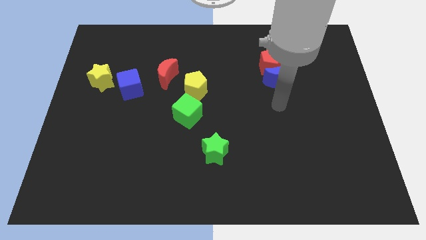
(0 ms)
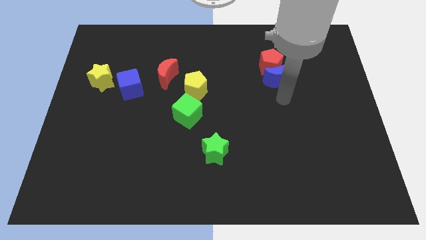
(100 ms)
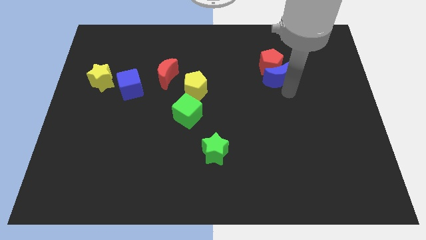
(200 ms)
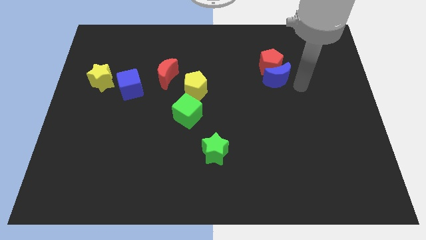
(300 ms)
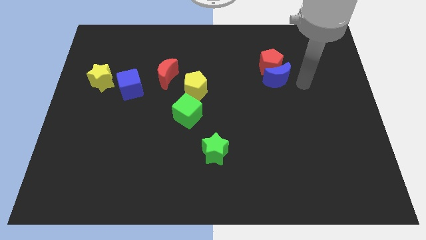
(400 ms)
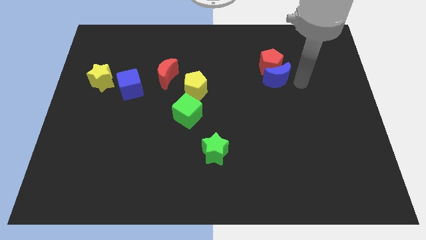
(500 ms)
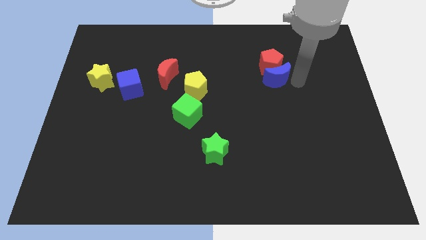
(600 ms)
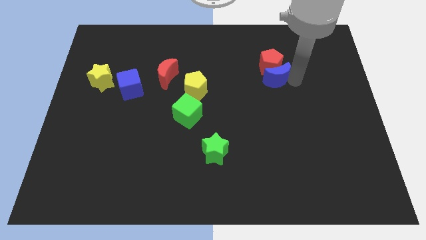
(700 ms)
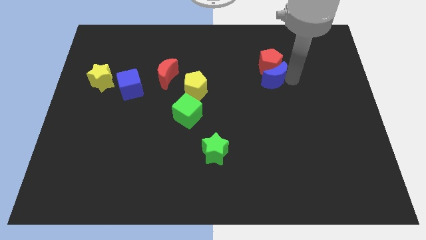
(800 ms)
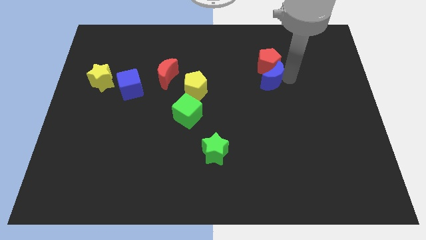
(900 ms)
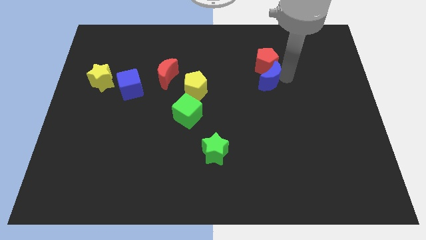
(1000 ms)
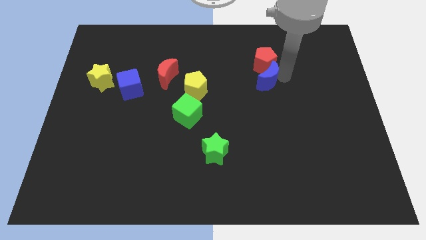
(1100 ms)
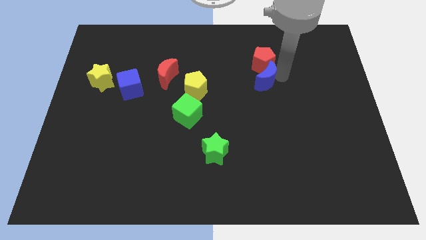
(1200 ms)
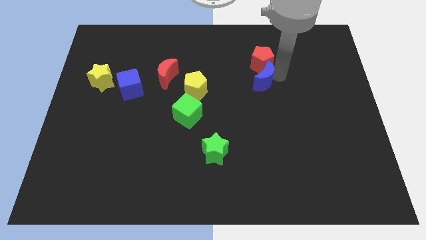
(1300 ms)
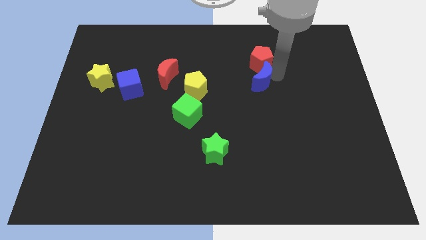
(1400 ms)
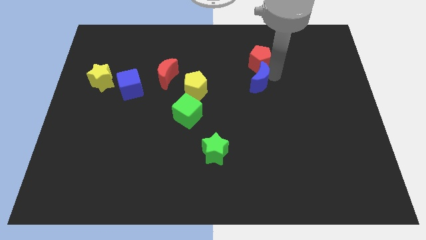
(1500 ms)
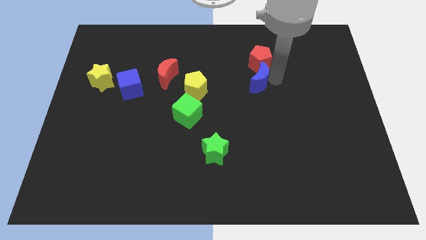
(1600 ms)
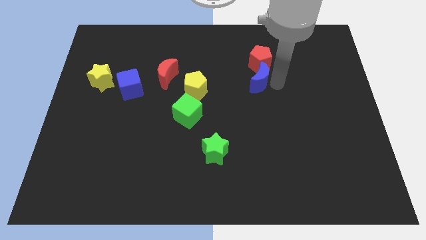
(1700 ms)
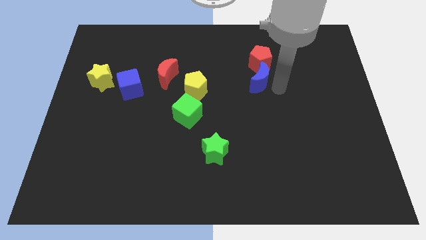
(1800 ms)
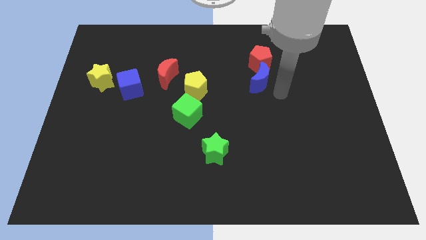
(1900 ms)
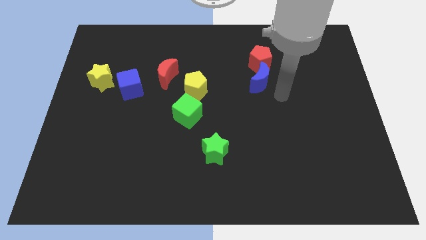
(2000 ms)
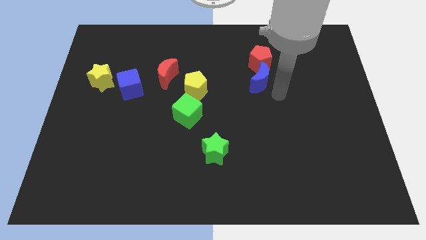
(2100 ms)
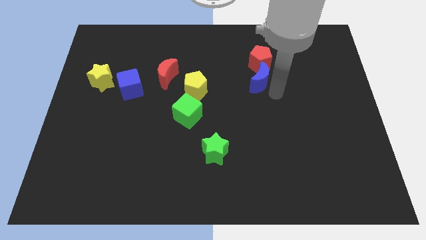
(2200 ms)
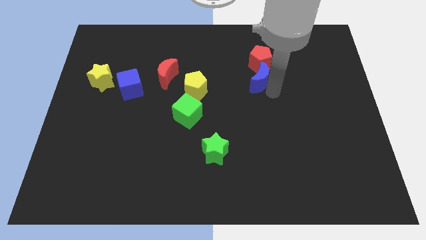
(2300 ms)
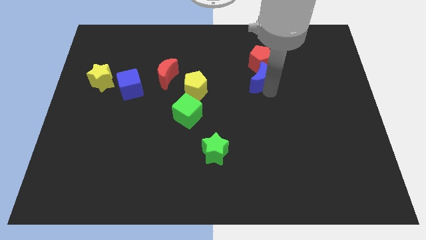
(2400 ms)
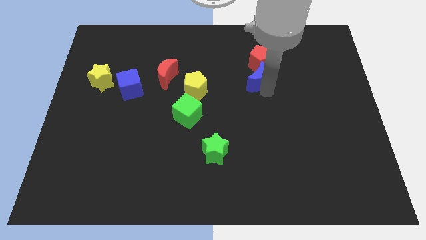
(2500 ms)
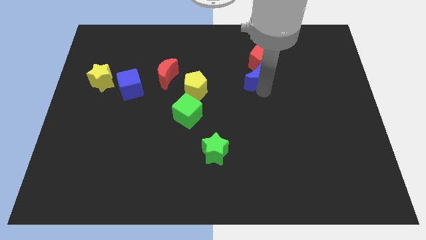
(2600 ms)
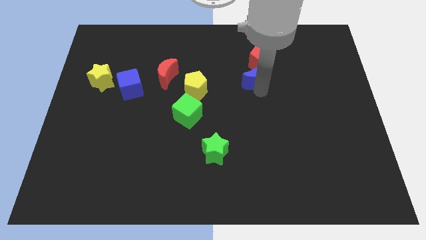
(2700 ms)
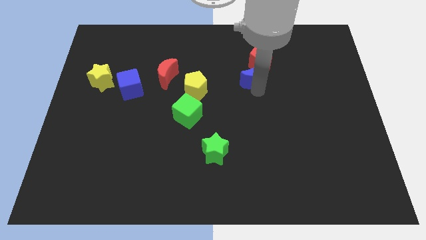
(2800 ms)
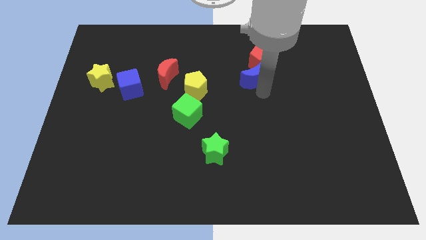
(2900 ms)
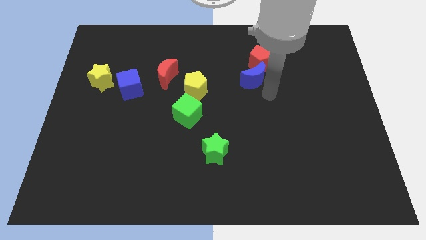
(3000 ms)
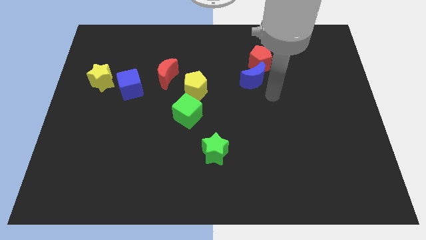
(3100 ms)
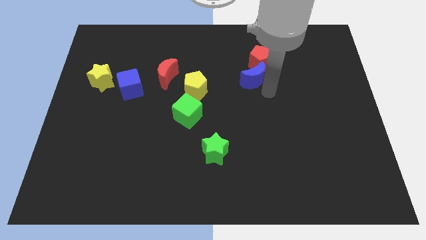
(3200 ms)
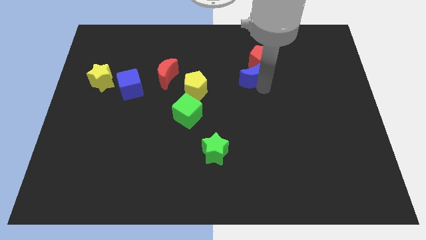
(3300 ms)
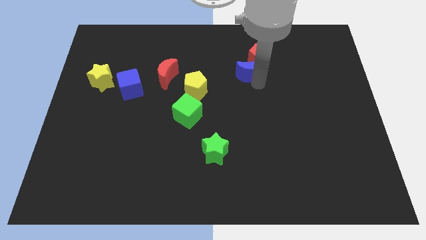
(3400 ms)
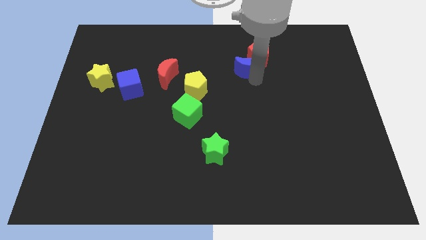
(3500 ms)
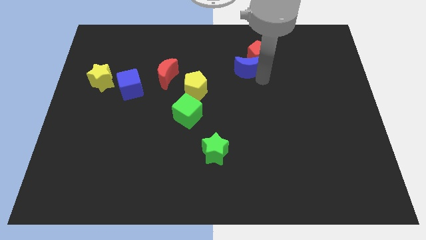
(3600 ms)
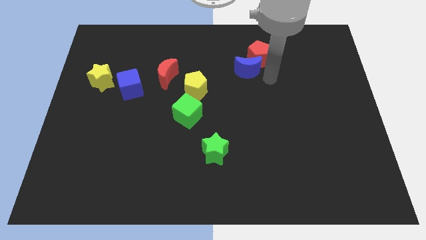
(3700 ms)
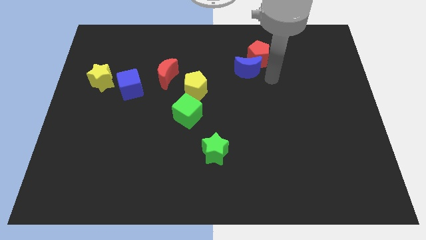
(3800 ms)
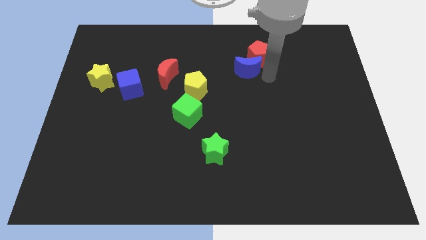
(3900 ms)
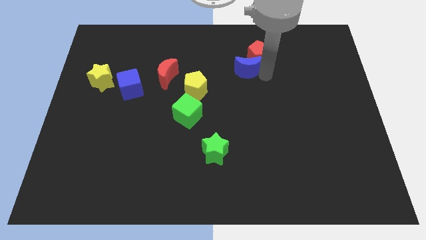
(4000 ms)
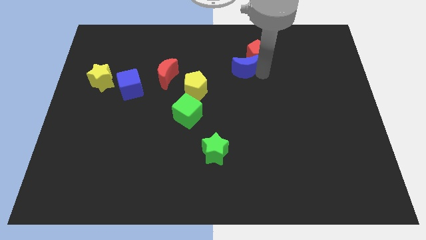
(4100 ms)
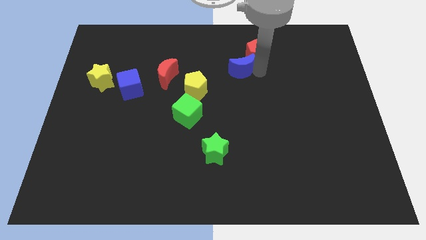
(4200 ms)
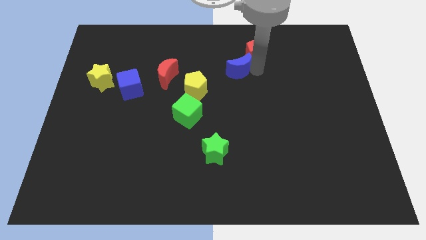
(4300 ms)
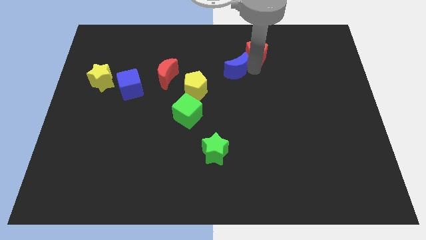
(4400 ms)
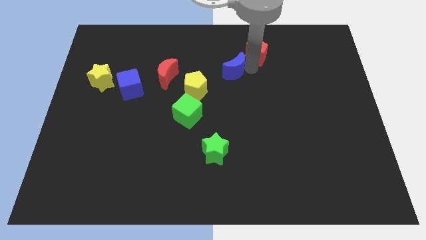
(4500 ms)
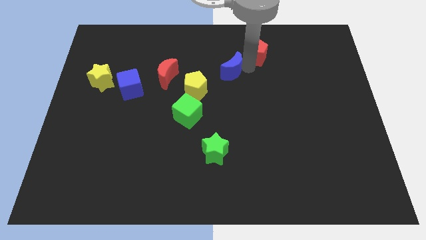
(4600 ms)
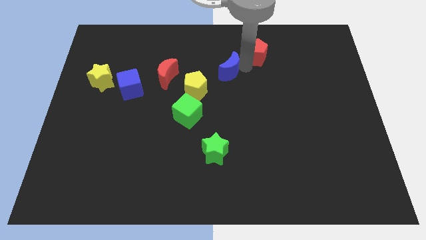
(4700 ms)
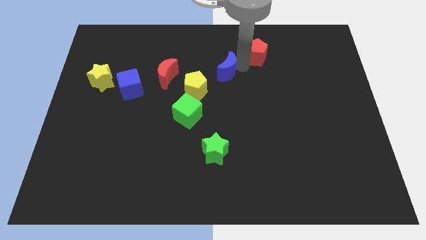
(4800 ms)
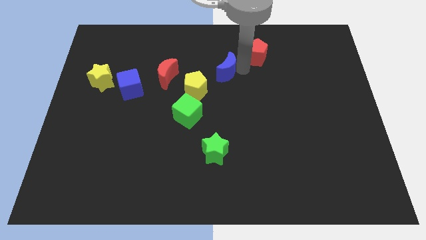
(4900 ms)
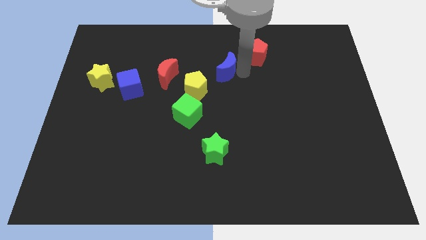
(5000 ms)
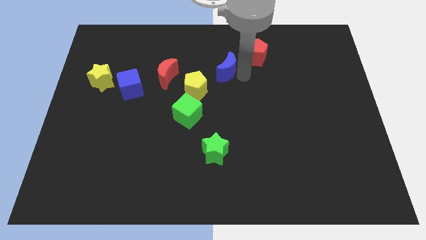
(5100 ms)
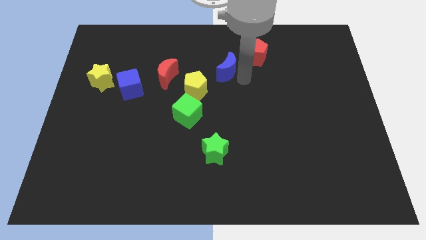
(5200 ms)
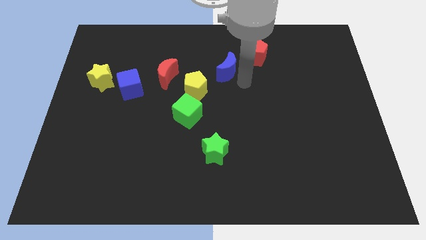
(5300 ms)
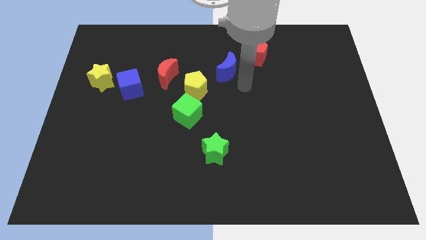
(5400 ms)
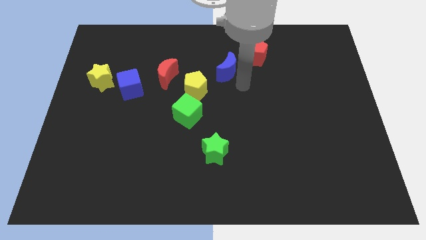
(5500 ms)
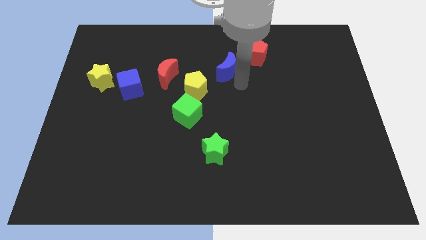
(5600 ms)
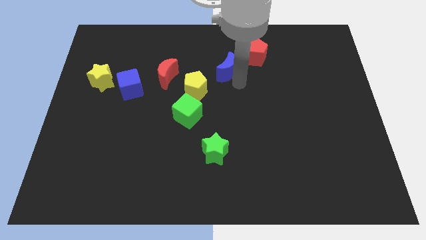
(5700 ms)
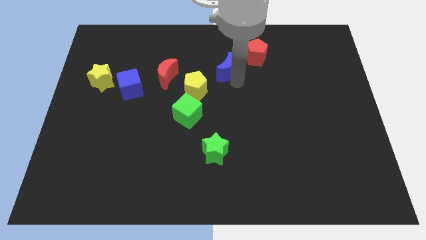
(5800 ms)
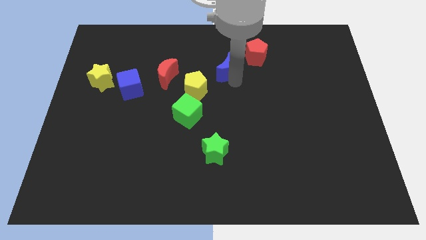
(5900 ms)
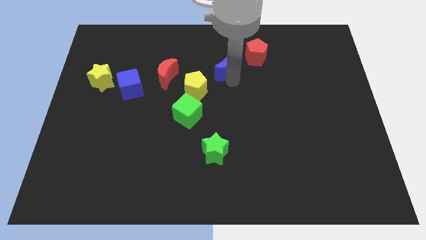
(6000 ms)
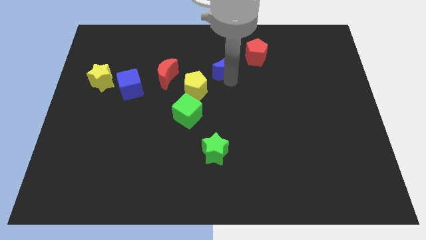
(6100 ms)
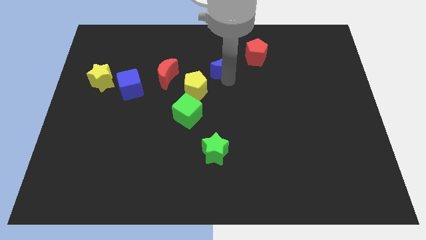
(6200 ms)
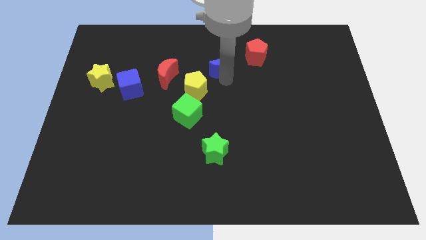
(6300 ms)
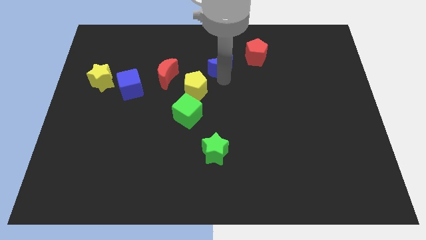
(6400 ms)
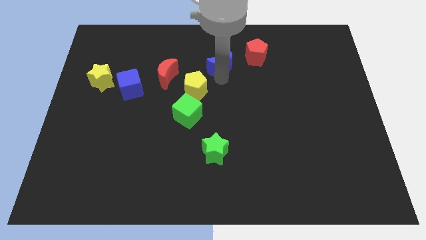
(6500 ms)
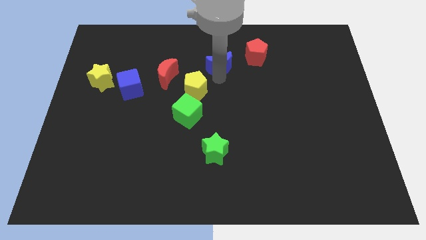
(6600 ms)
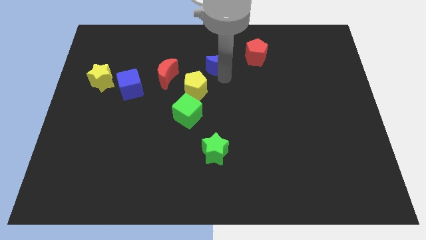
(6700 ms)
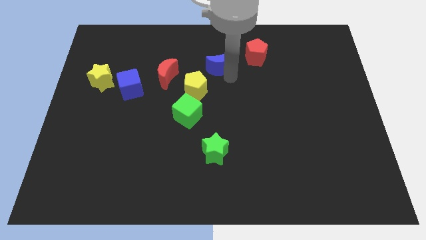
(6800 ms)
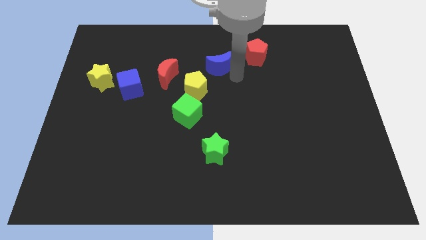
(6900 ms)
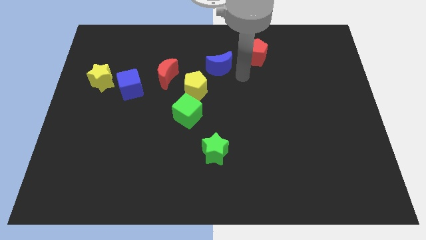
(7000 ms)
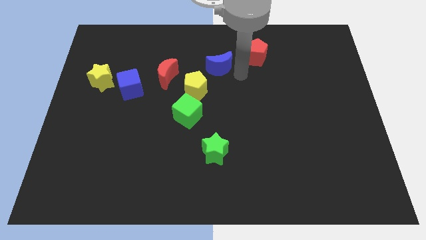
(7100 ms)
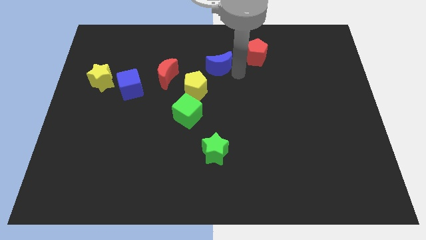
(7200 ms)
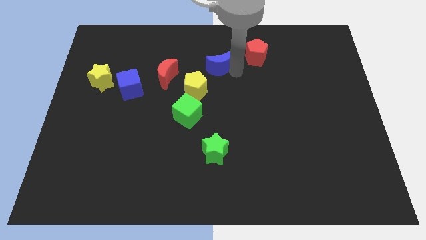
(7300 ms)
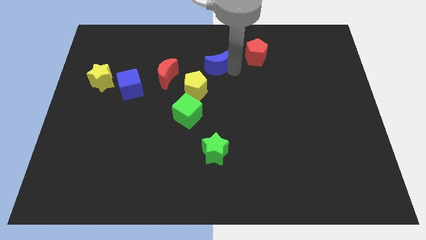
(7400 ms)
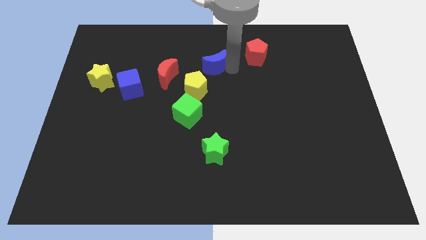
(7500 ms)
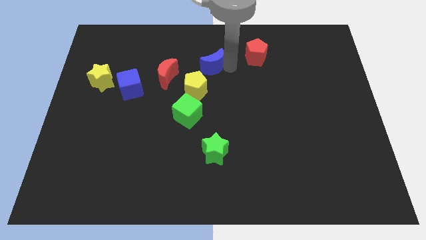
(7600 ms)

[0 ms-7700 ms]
slide the blue moon above the yellow pentagon

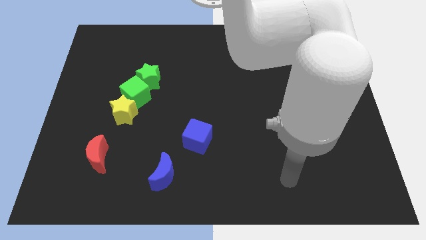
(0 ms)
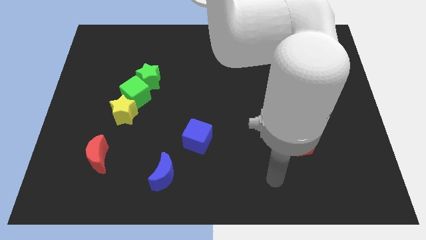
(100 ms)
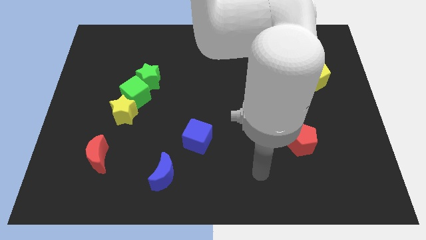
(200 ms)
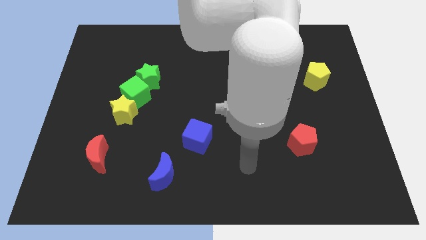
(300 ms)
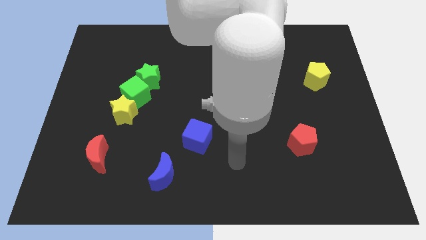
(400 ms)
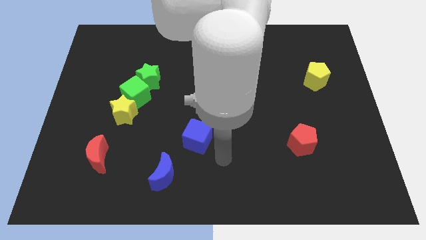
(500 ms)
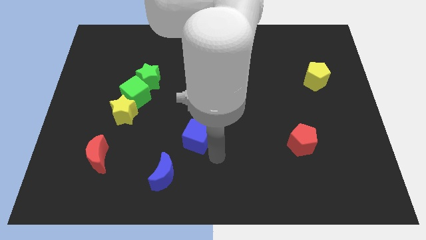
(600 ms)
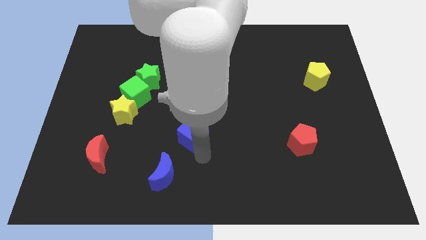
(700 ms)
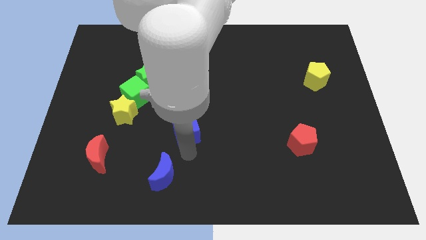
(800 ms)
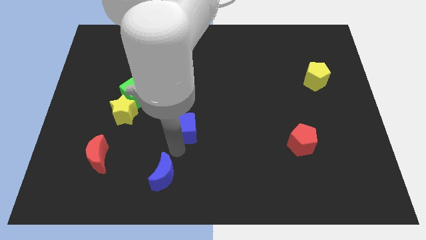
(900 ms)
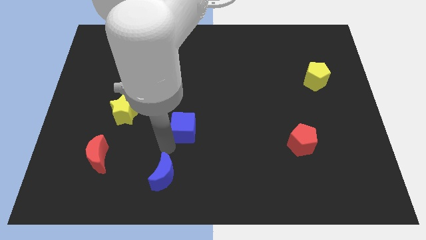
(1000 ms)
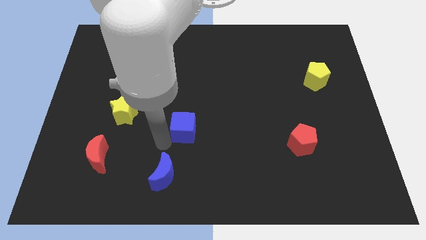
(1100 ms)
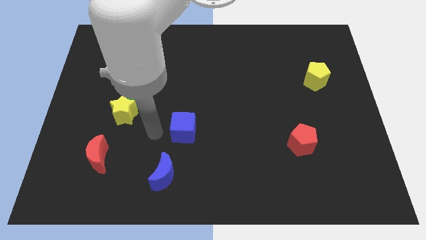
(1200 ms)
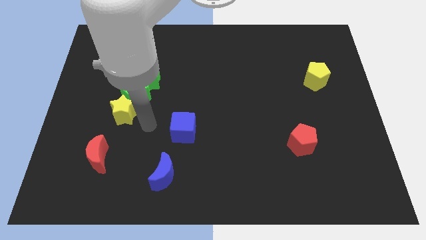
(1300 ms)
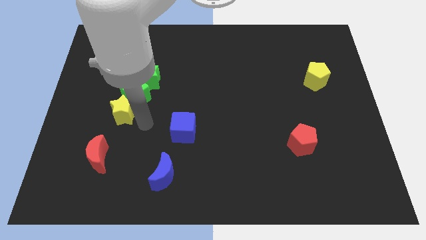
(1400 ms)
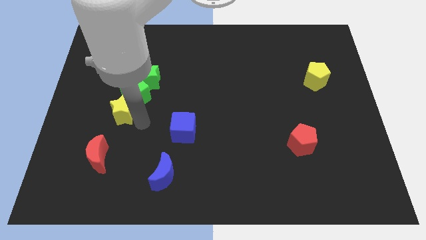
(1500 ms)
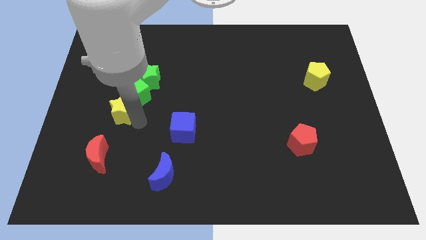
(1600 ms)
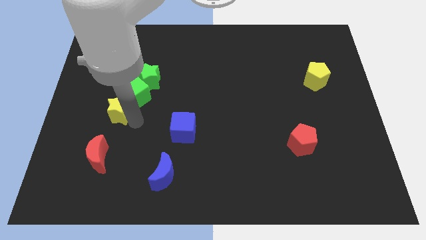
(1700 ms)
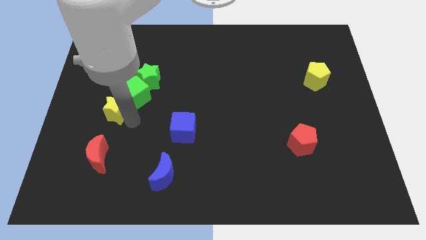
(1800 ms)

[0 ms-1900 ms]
put the yellow star to the left side of the green cube
